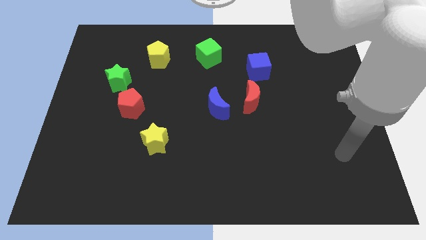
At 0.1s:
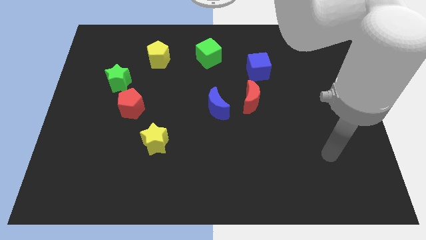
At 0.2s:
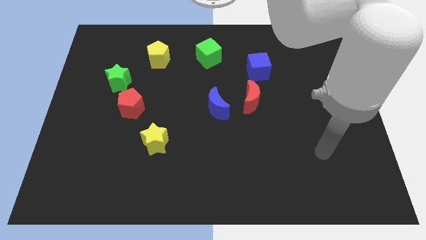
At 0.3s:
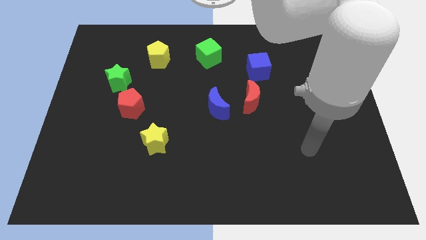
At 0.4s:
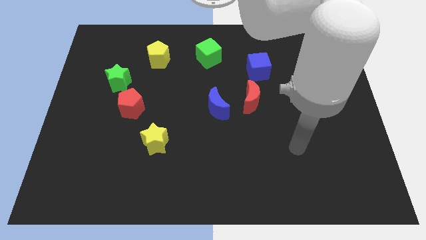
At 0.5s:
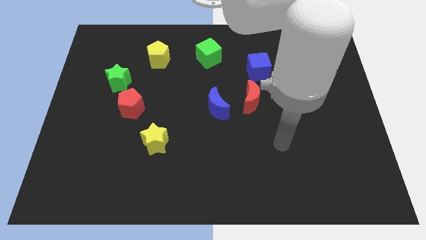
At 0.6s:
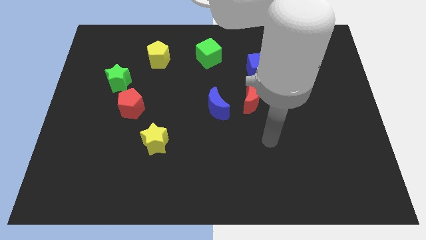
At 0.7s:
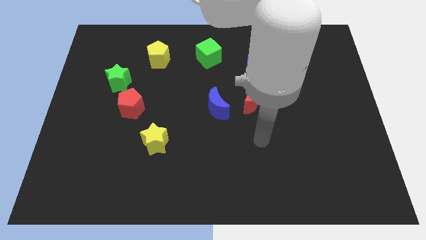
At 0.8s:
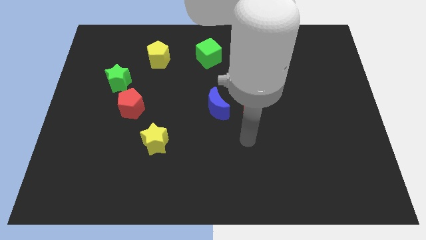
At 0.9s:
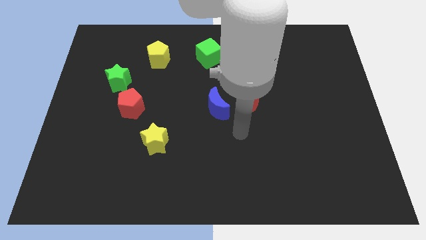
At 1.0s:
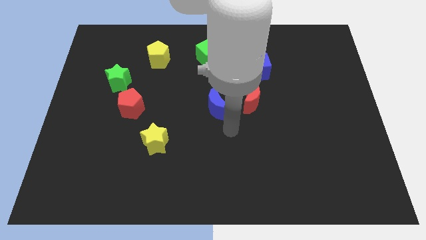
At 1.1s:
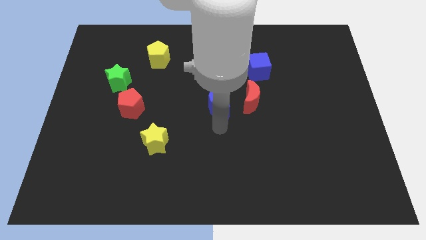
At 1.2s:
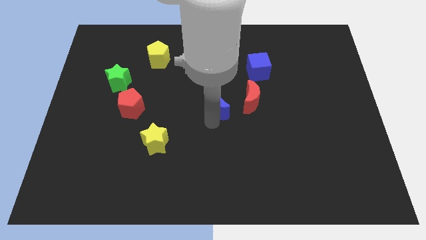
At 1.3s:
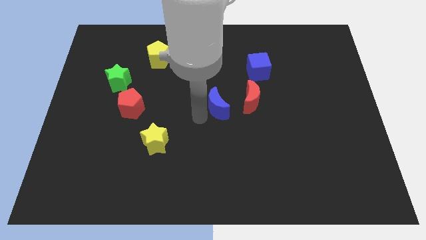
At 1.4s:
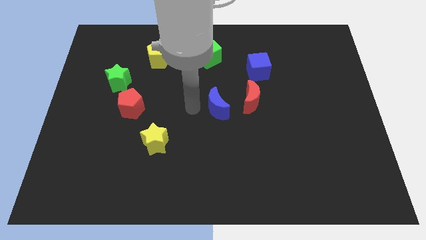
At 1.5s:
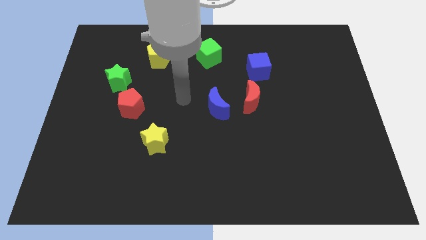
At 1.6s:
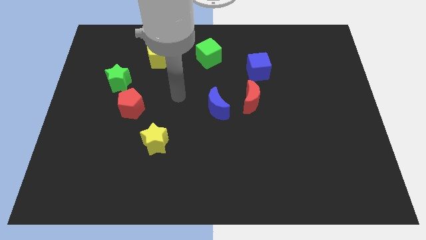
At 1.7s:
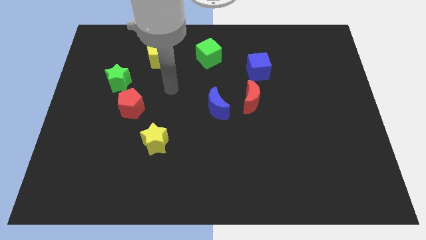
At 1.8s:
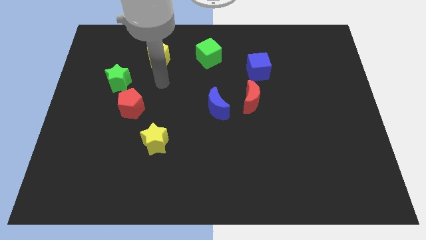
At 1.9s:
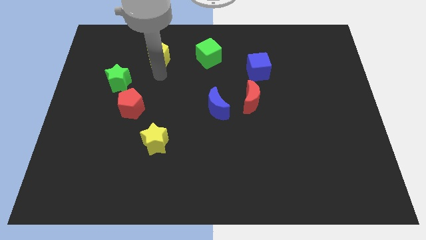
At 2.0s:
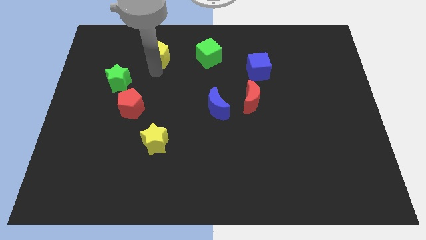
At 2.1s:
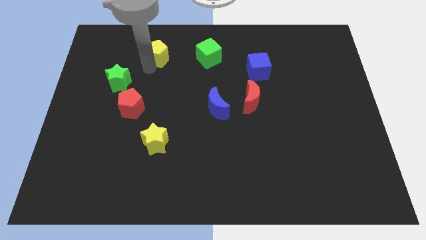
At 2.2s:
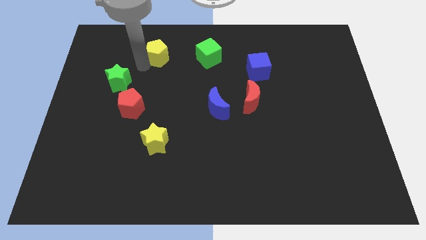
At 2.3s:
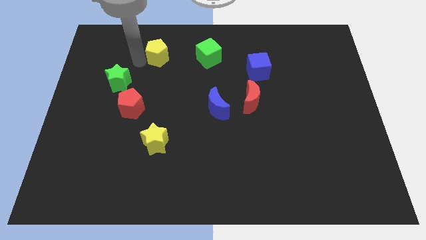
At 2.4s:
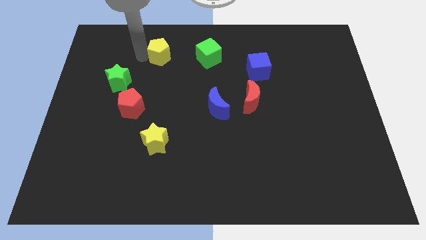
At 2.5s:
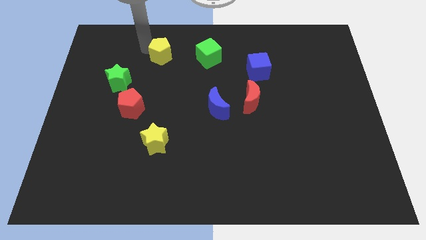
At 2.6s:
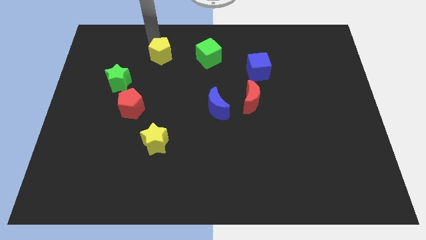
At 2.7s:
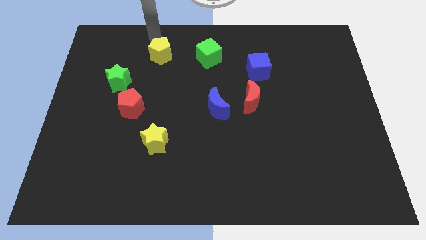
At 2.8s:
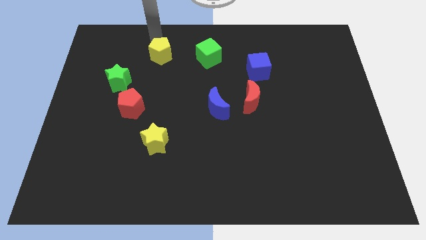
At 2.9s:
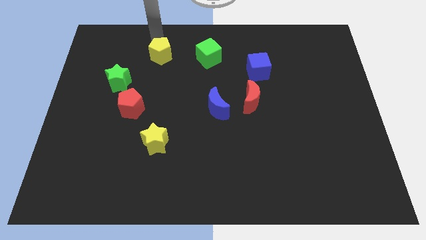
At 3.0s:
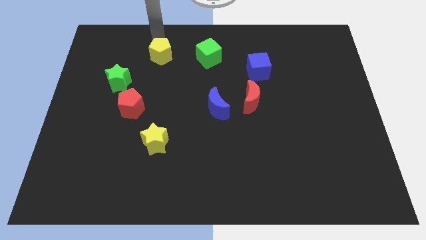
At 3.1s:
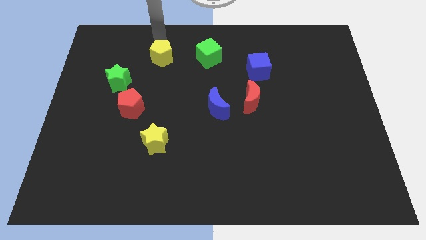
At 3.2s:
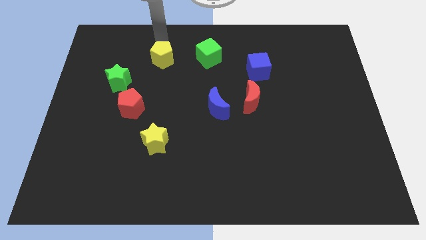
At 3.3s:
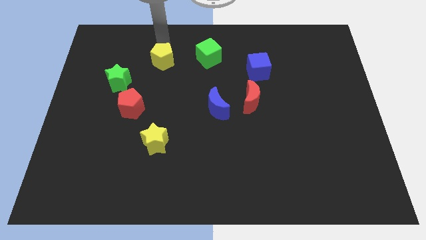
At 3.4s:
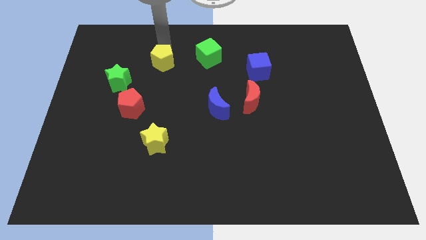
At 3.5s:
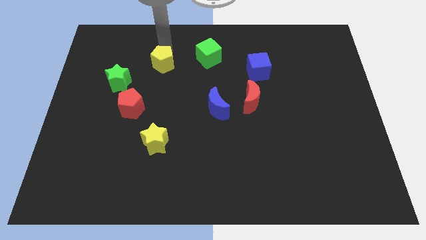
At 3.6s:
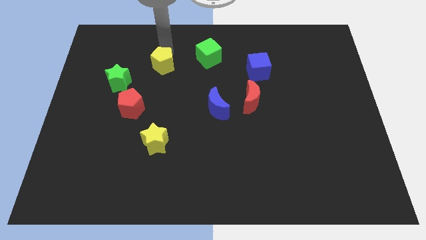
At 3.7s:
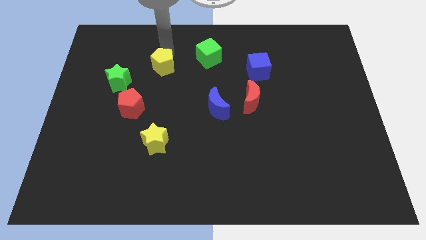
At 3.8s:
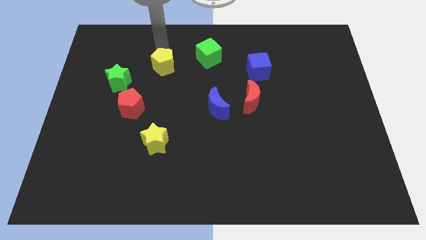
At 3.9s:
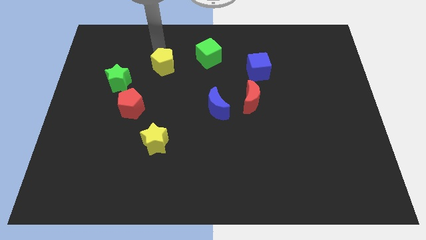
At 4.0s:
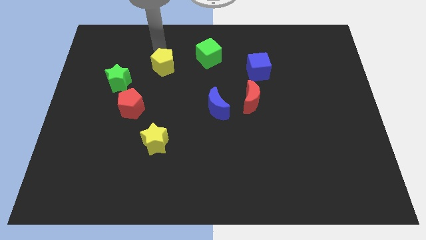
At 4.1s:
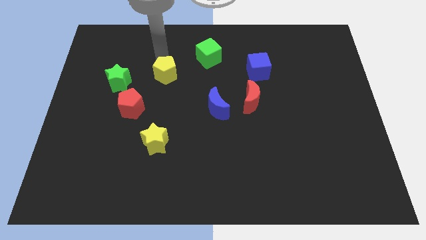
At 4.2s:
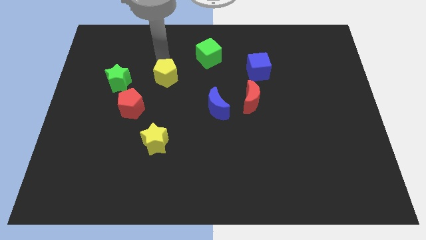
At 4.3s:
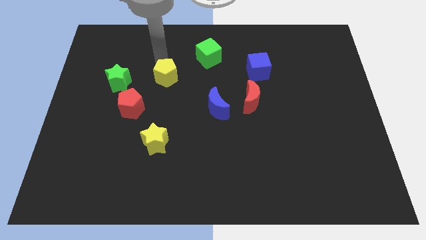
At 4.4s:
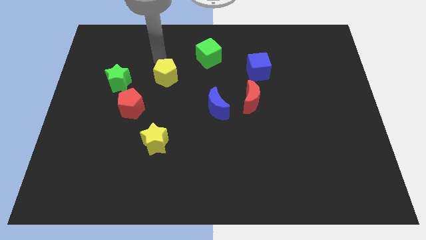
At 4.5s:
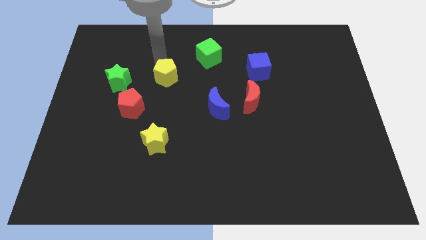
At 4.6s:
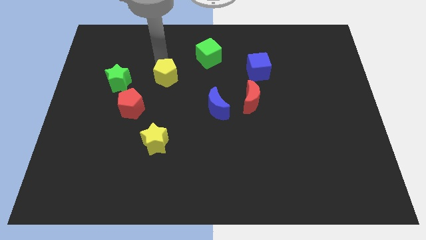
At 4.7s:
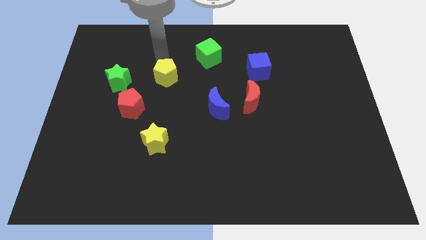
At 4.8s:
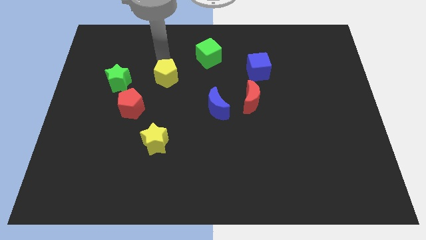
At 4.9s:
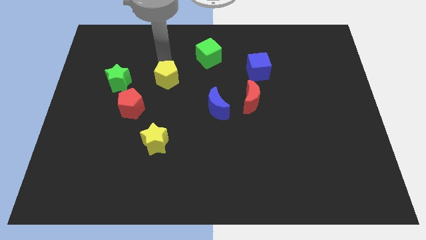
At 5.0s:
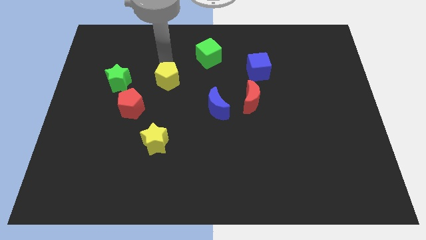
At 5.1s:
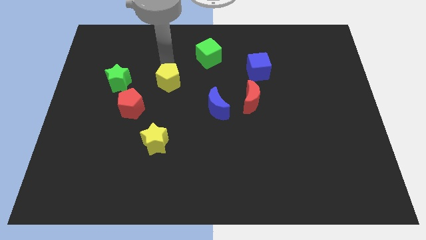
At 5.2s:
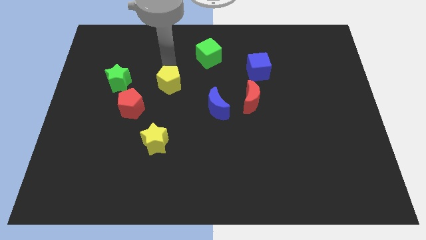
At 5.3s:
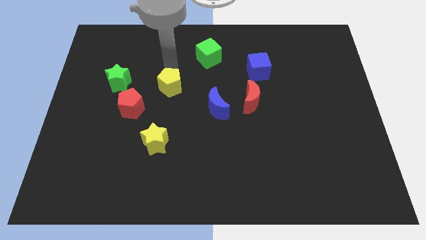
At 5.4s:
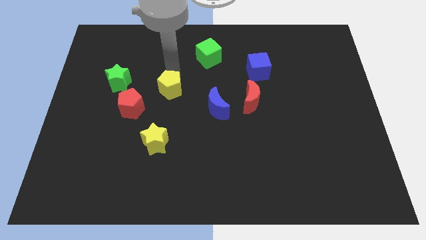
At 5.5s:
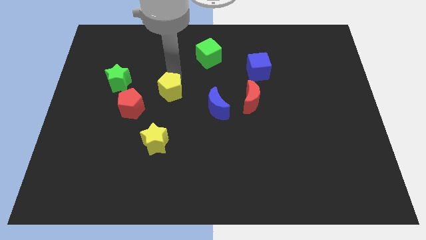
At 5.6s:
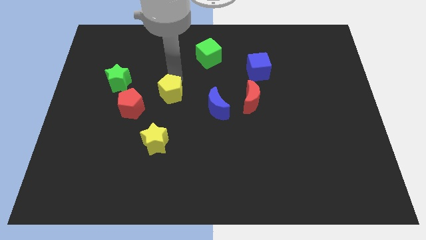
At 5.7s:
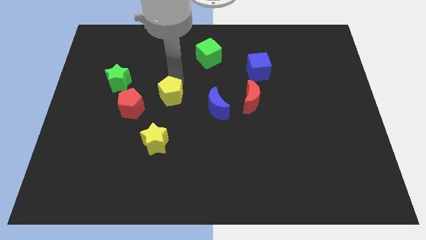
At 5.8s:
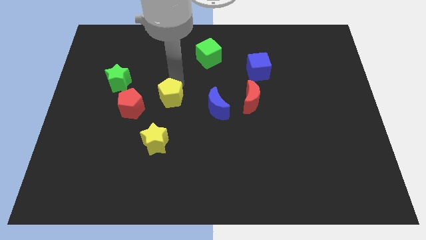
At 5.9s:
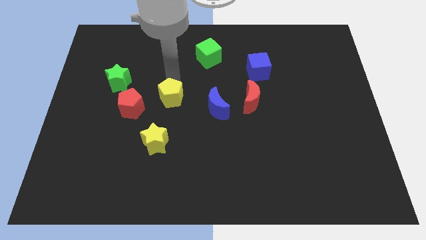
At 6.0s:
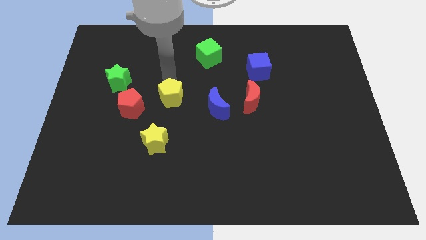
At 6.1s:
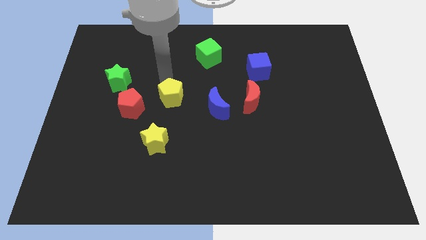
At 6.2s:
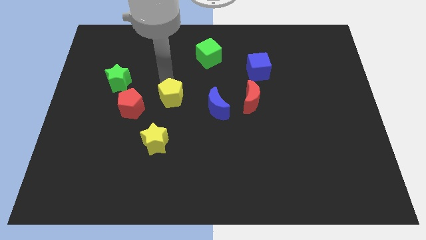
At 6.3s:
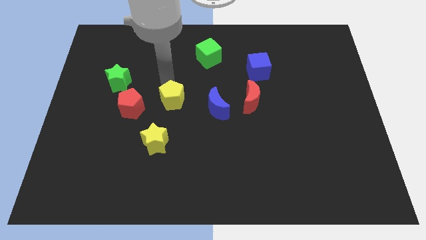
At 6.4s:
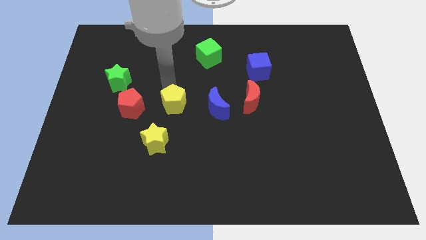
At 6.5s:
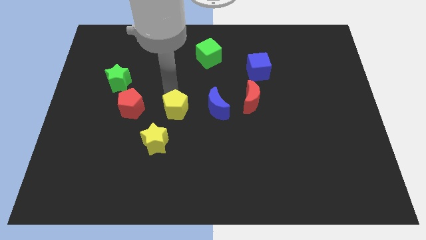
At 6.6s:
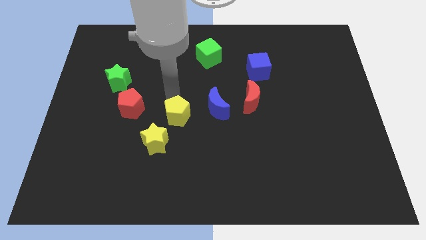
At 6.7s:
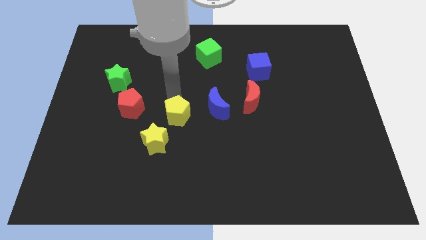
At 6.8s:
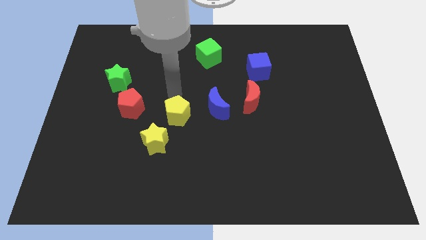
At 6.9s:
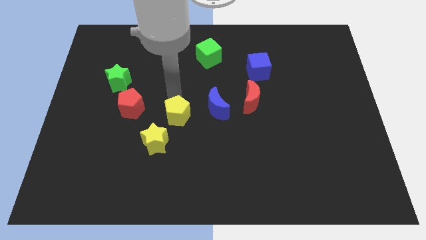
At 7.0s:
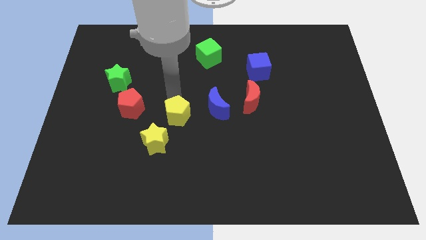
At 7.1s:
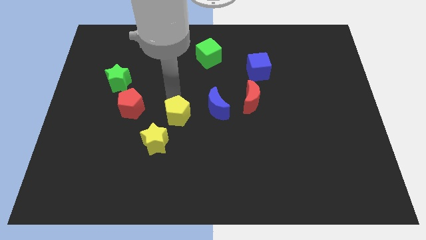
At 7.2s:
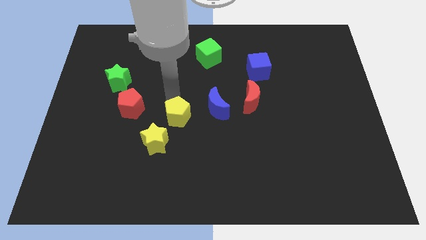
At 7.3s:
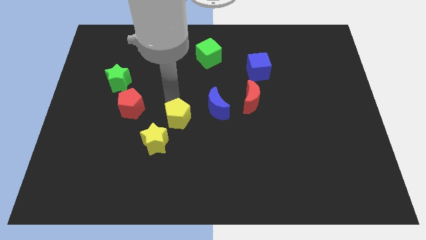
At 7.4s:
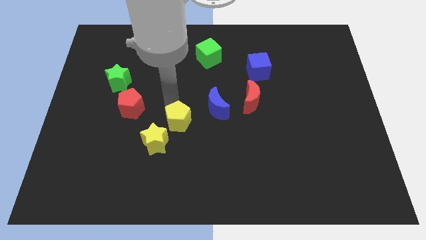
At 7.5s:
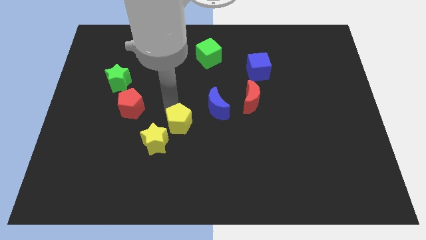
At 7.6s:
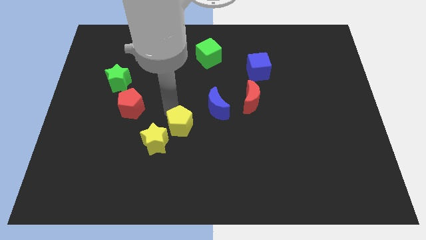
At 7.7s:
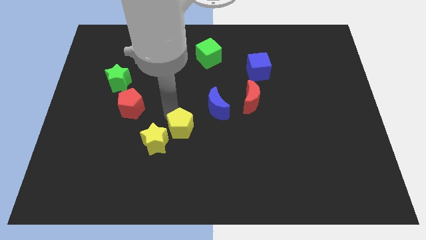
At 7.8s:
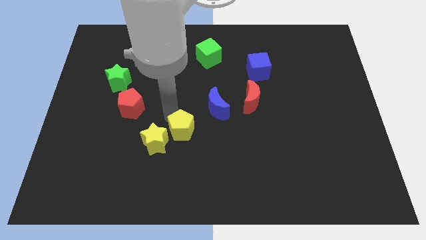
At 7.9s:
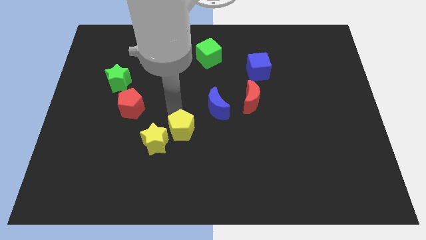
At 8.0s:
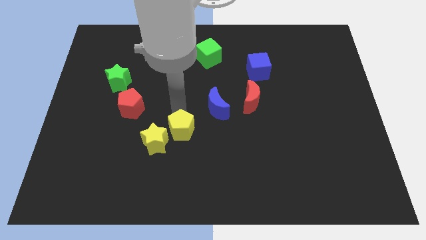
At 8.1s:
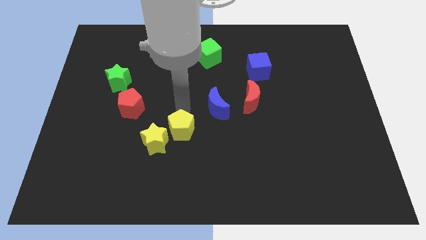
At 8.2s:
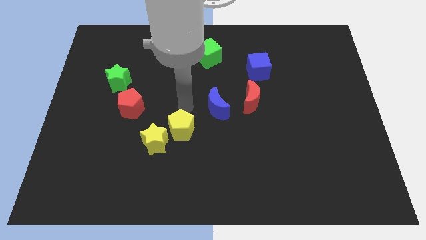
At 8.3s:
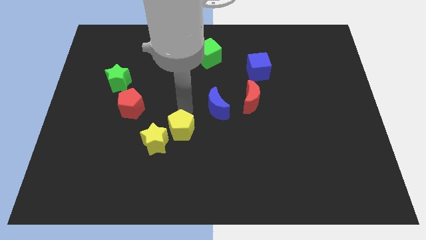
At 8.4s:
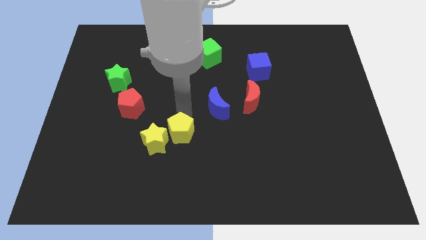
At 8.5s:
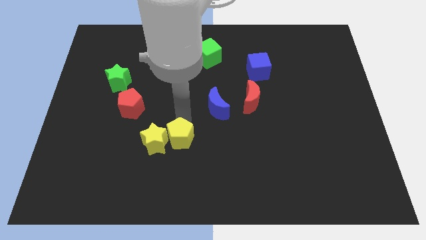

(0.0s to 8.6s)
push the yellow pentagon to the bottom right of the yellow star
